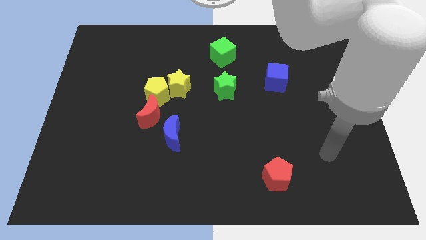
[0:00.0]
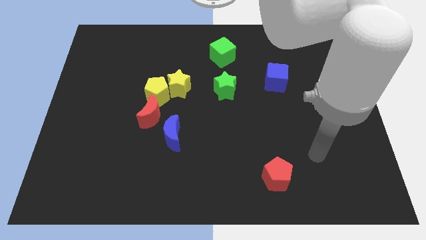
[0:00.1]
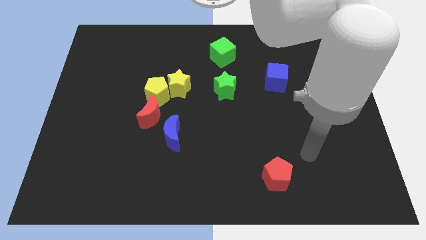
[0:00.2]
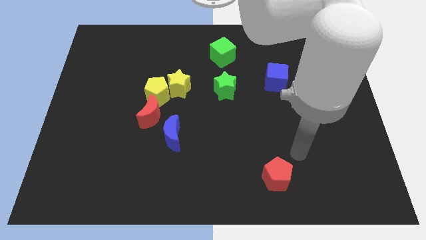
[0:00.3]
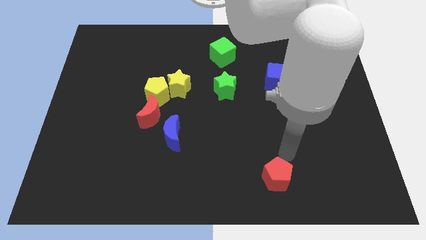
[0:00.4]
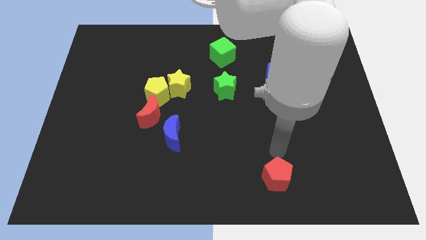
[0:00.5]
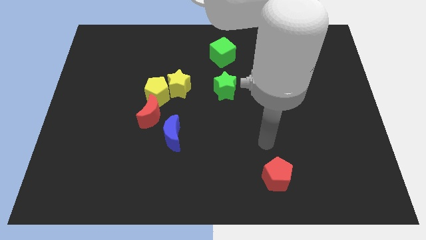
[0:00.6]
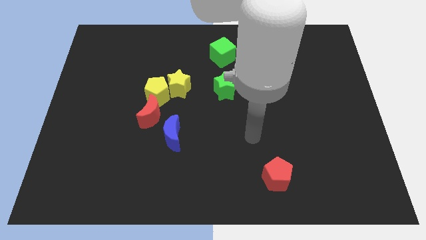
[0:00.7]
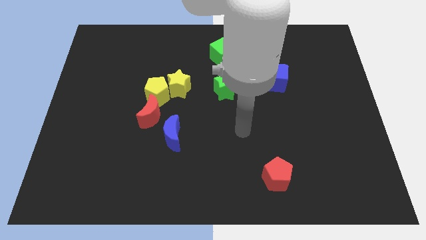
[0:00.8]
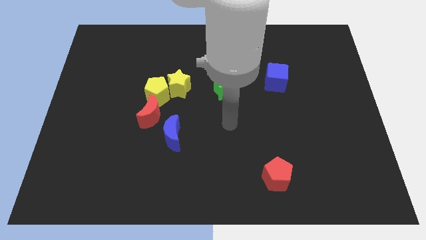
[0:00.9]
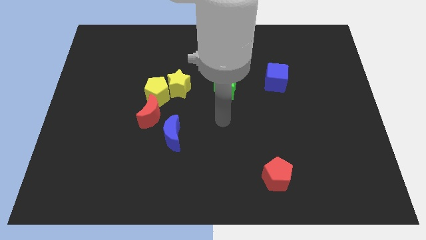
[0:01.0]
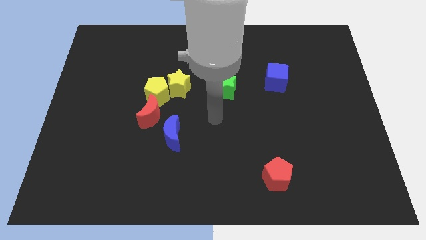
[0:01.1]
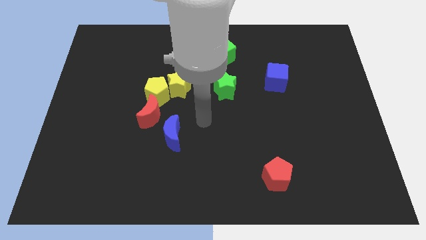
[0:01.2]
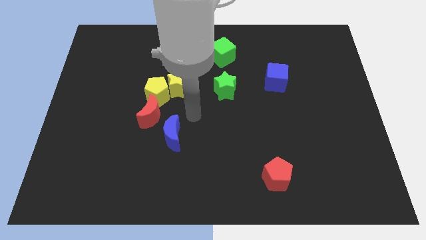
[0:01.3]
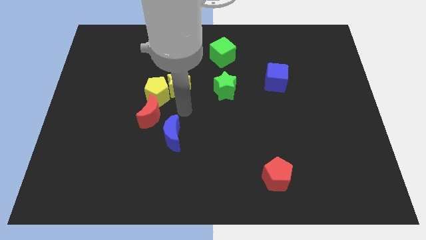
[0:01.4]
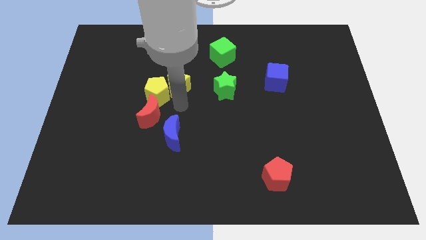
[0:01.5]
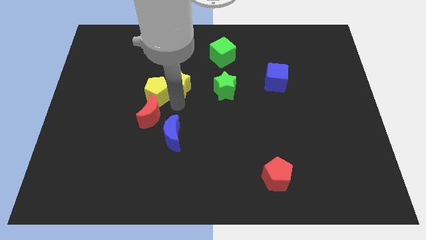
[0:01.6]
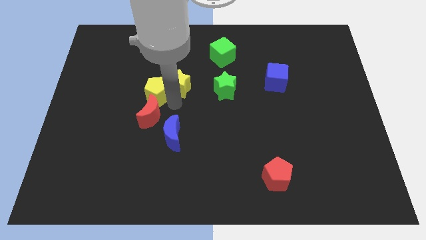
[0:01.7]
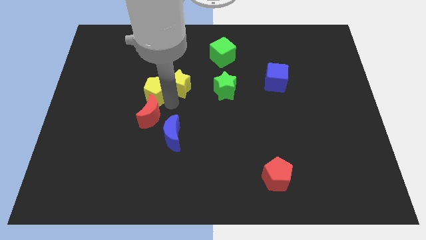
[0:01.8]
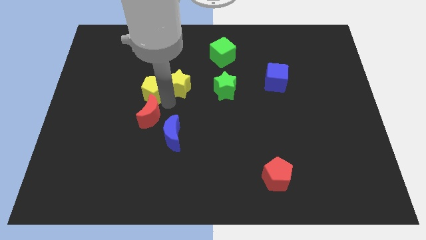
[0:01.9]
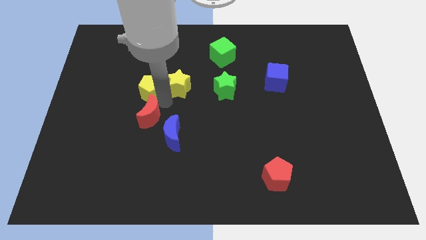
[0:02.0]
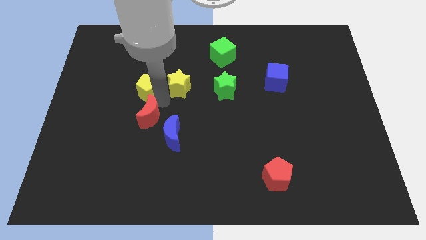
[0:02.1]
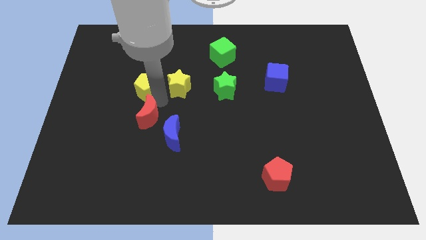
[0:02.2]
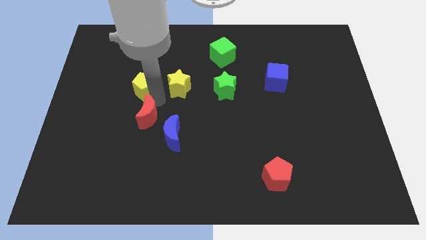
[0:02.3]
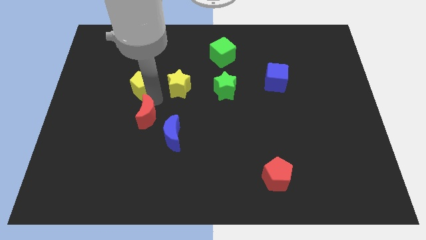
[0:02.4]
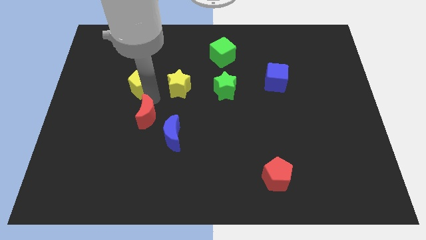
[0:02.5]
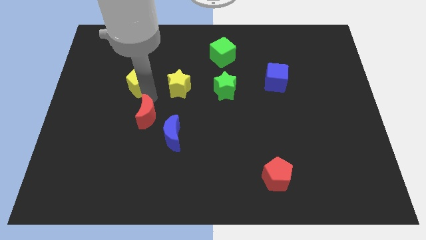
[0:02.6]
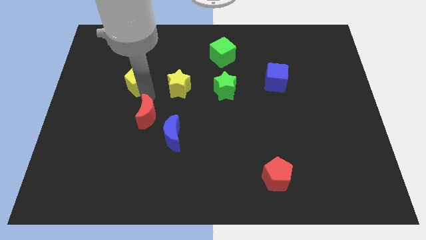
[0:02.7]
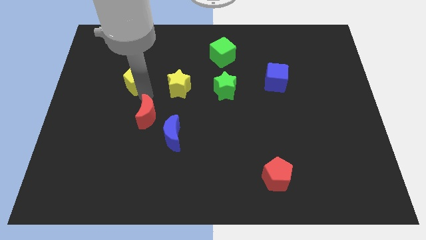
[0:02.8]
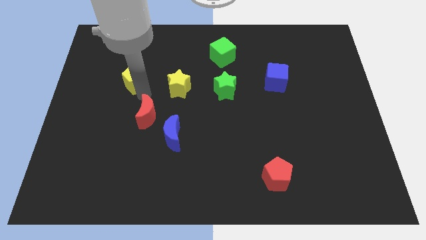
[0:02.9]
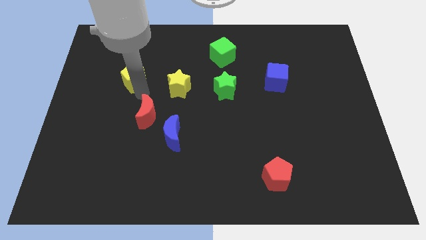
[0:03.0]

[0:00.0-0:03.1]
separate the yellow pentagon from the yellow star and red moon

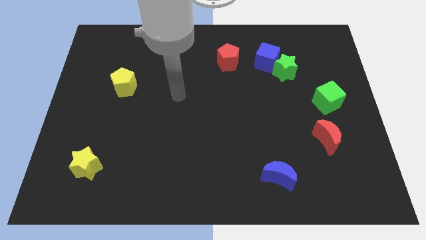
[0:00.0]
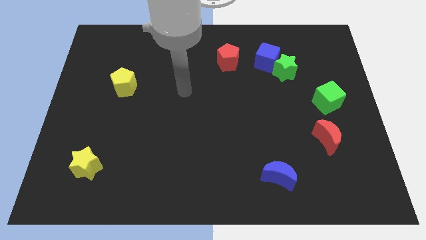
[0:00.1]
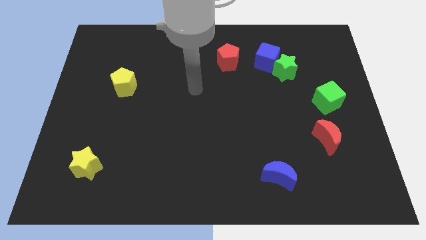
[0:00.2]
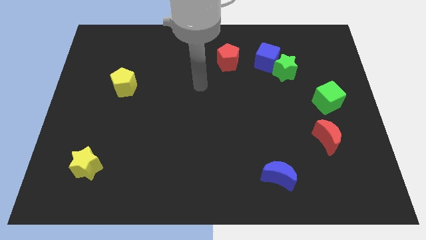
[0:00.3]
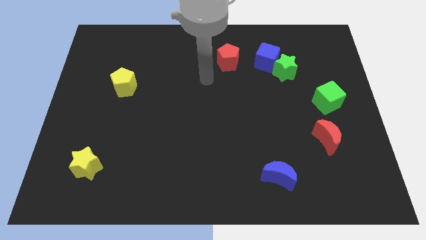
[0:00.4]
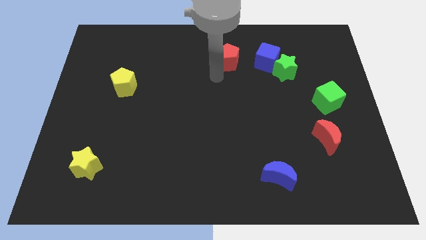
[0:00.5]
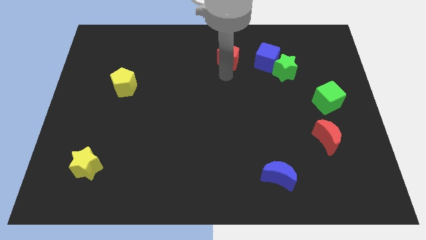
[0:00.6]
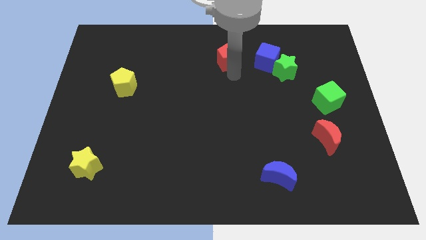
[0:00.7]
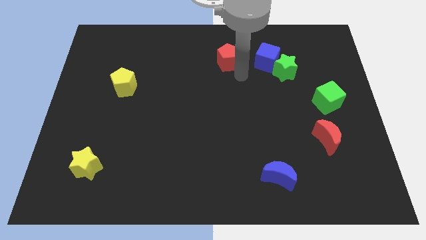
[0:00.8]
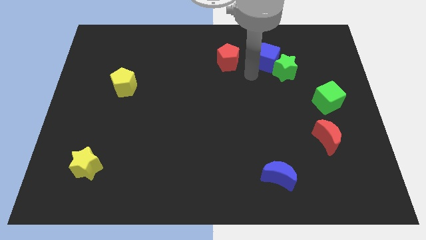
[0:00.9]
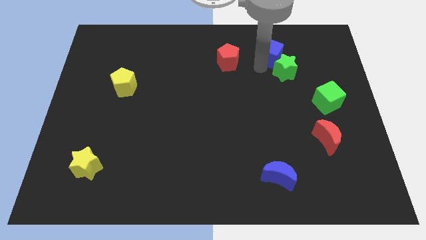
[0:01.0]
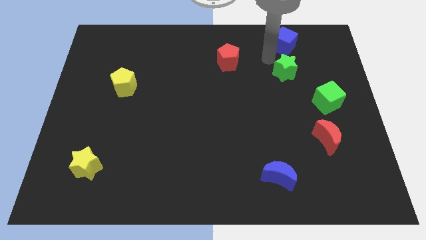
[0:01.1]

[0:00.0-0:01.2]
pull the green star apart from the blue cube

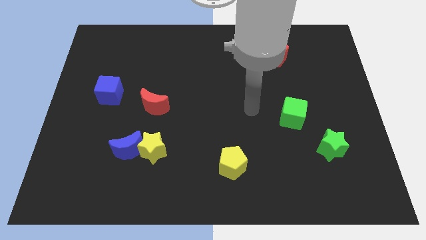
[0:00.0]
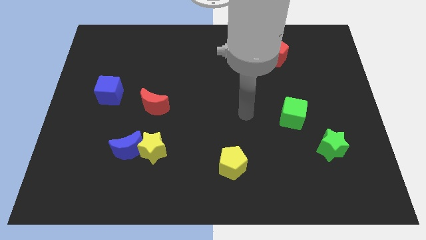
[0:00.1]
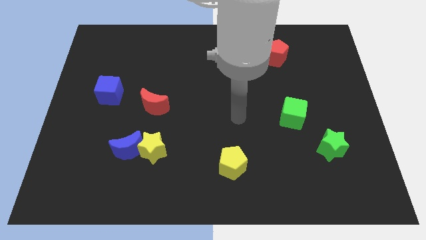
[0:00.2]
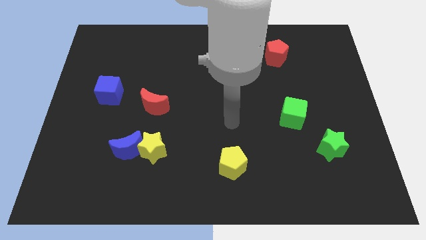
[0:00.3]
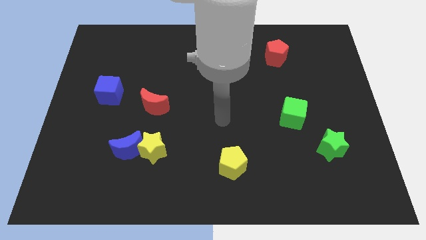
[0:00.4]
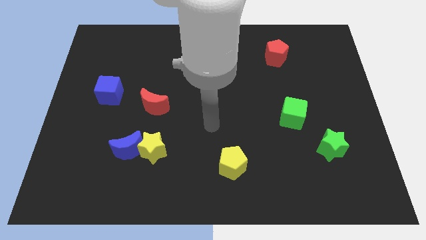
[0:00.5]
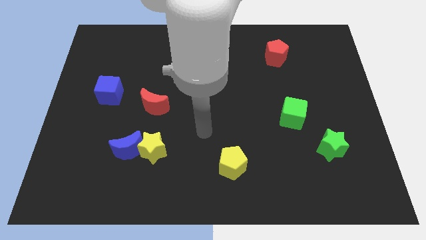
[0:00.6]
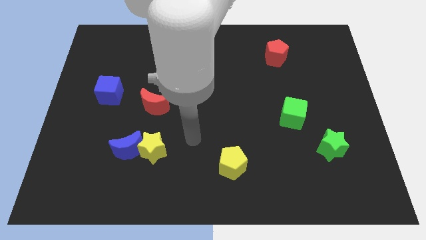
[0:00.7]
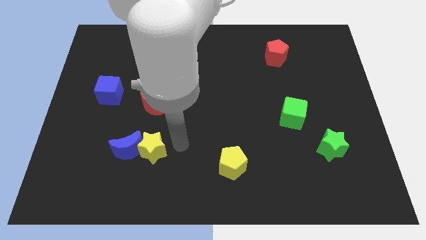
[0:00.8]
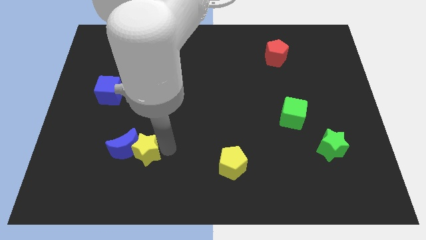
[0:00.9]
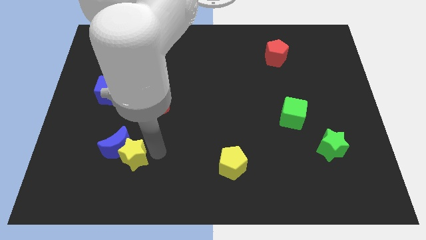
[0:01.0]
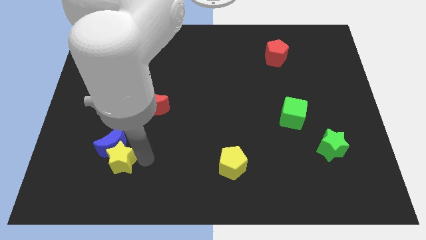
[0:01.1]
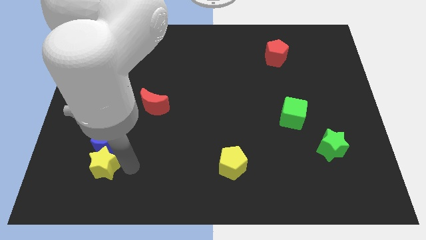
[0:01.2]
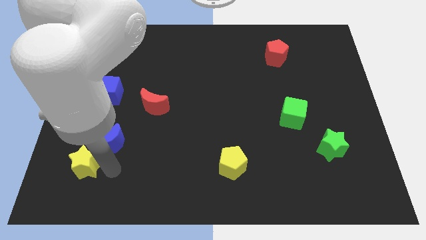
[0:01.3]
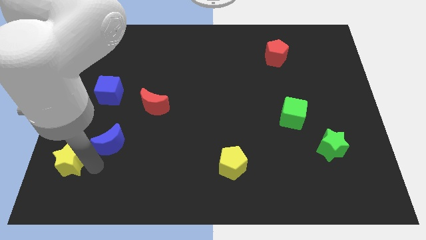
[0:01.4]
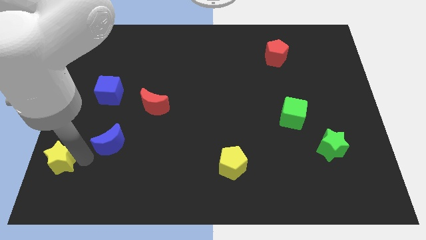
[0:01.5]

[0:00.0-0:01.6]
move the blue moon away from the yellow star

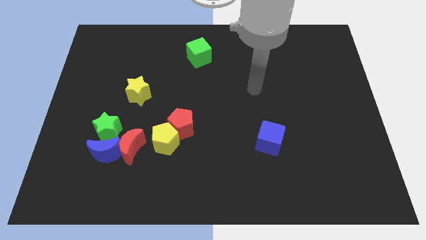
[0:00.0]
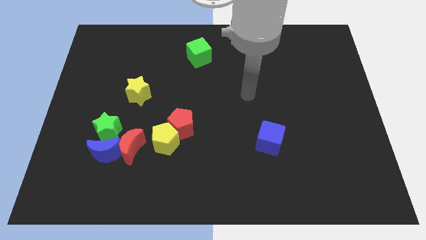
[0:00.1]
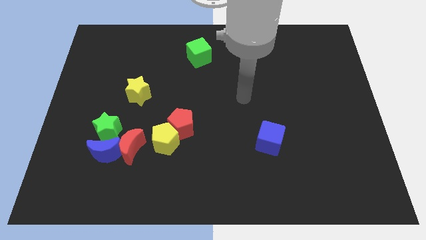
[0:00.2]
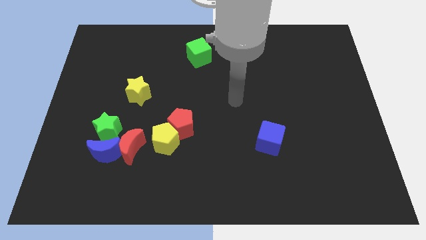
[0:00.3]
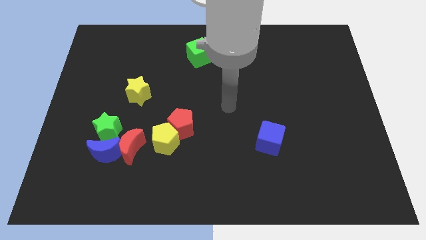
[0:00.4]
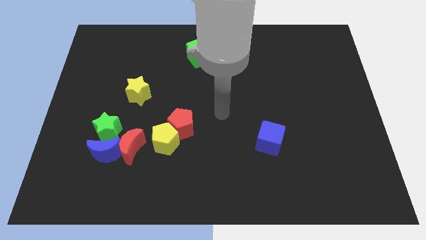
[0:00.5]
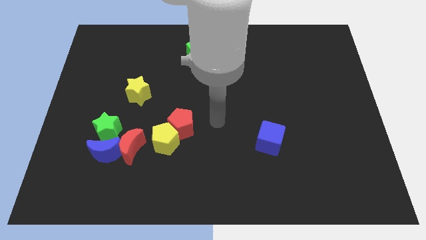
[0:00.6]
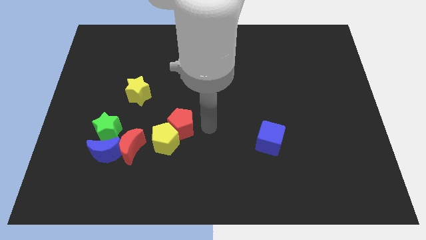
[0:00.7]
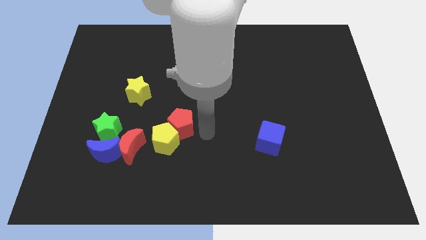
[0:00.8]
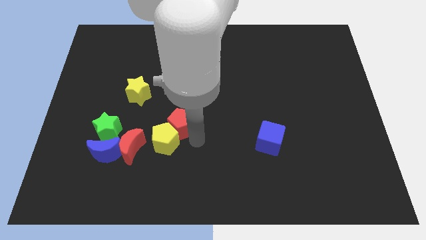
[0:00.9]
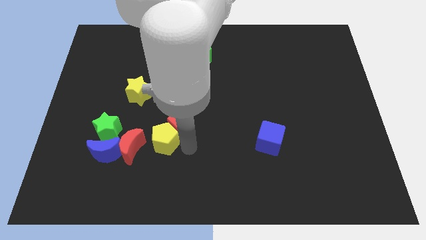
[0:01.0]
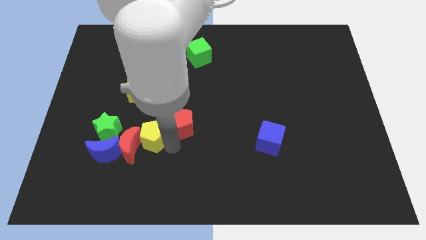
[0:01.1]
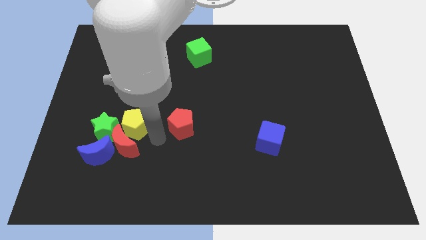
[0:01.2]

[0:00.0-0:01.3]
separate the red pentagon from the yellow pentagon

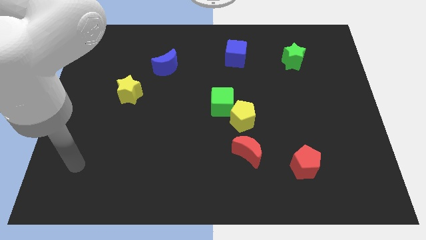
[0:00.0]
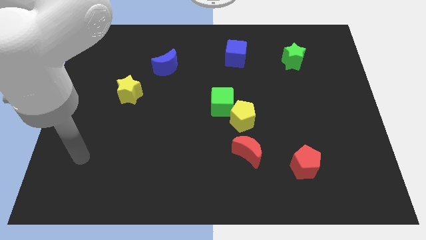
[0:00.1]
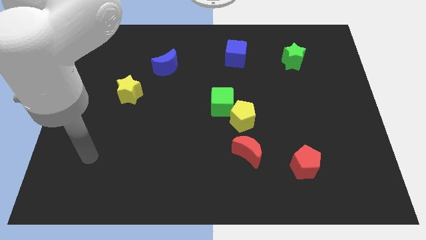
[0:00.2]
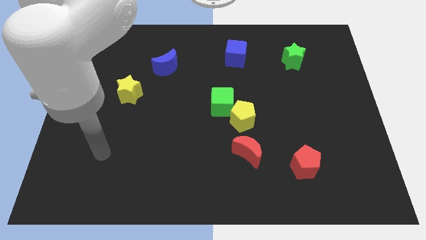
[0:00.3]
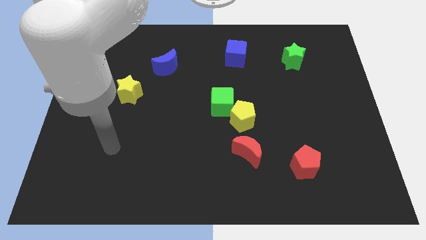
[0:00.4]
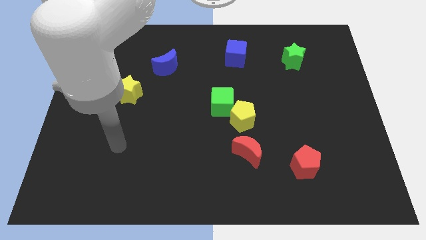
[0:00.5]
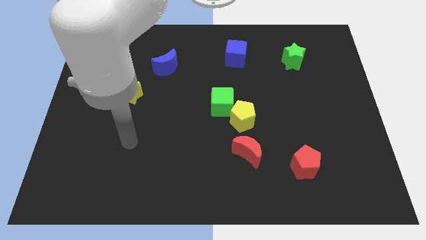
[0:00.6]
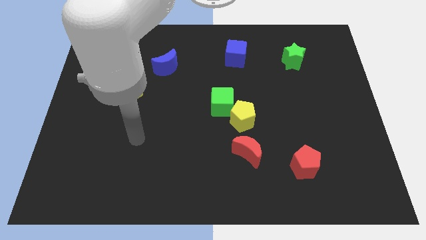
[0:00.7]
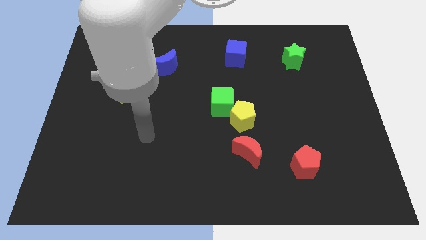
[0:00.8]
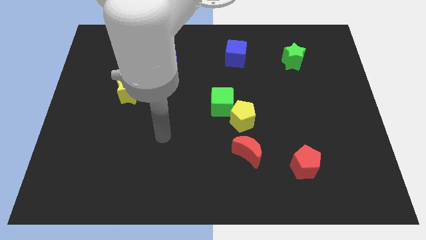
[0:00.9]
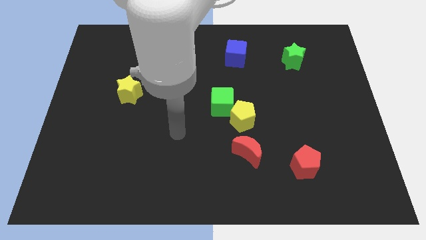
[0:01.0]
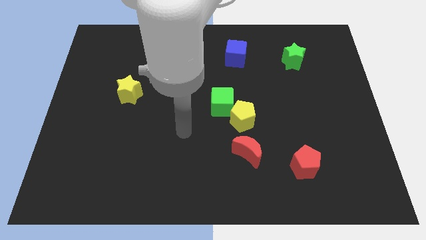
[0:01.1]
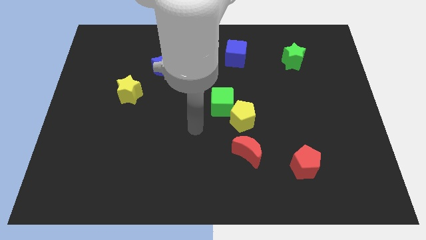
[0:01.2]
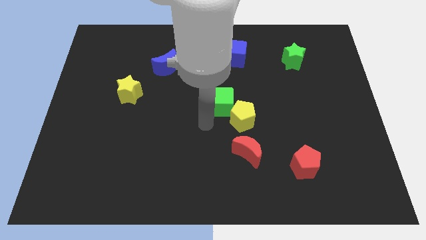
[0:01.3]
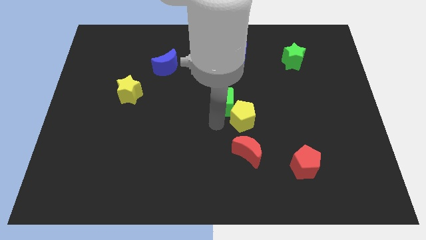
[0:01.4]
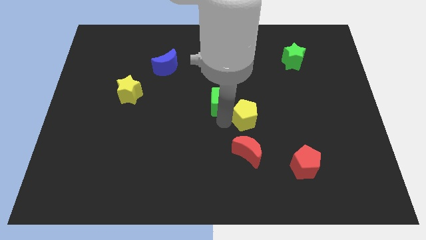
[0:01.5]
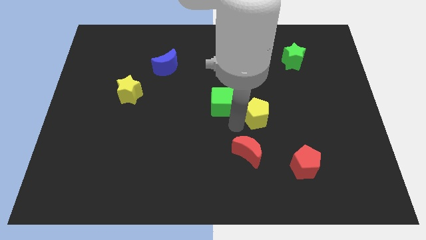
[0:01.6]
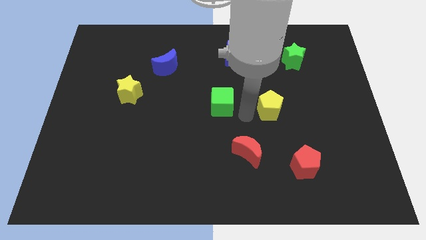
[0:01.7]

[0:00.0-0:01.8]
move the green cube away from the yellow pentagon

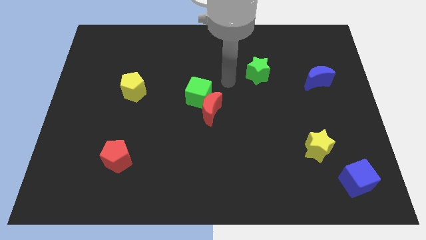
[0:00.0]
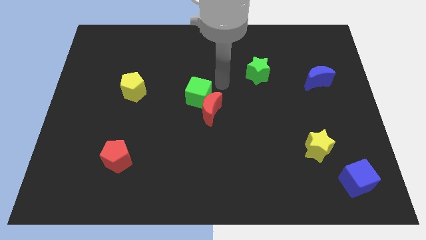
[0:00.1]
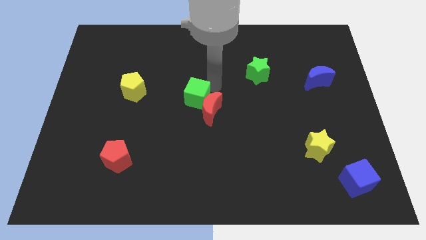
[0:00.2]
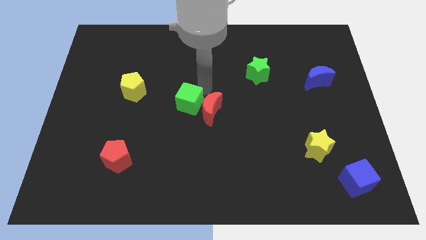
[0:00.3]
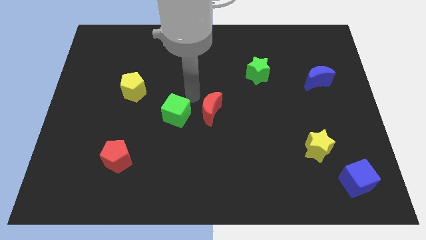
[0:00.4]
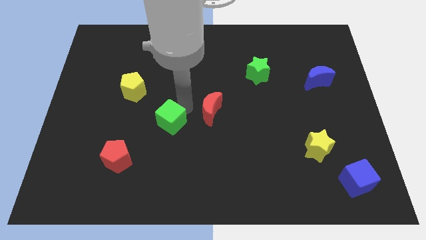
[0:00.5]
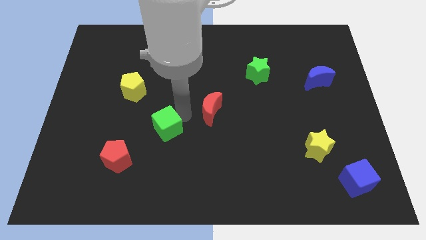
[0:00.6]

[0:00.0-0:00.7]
pull the red moon apart from the green cube
